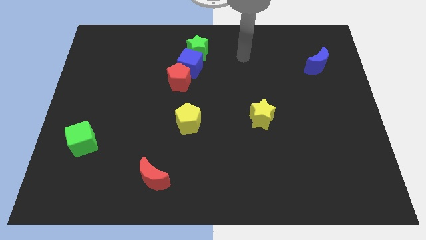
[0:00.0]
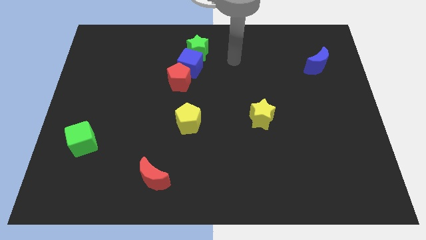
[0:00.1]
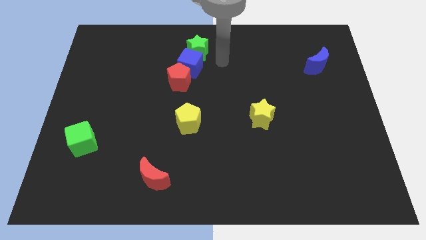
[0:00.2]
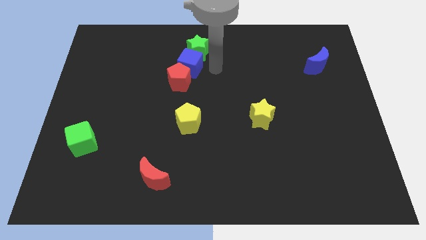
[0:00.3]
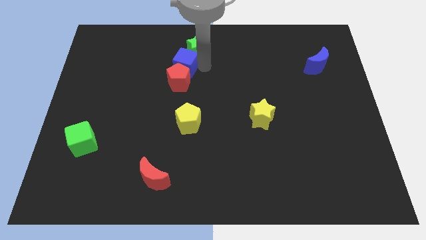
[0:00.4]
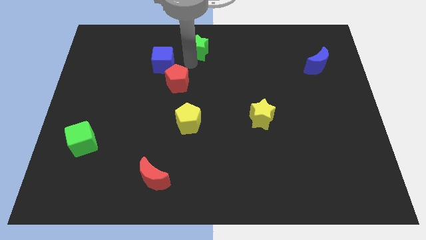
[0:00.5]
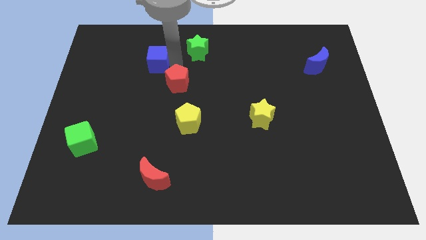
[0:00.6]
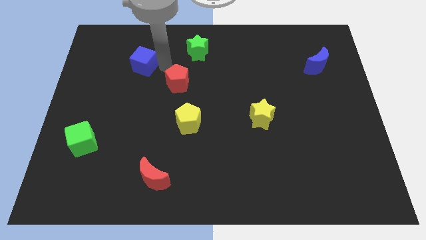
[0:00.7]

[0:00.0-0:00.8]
move the red pentagon away from the blue cube

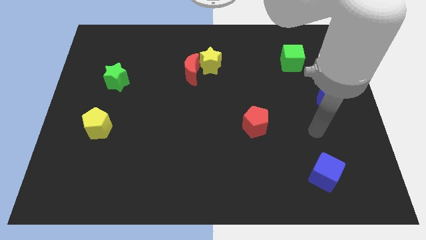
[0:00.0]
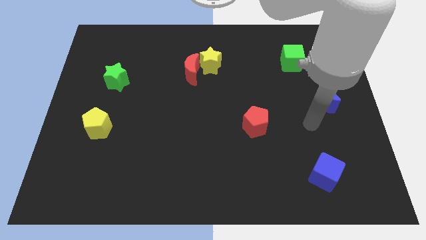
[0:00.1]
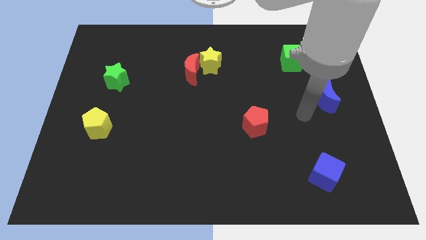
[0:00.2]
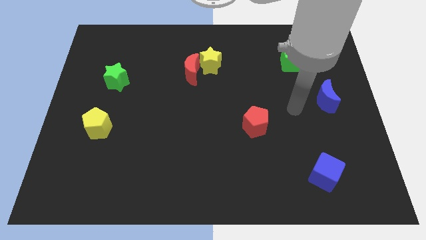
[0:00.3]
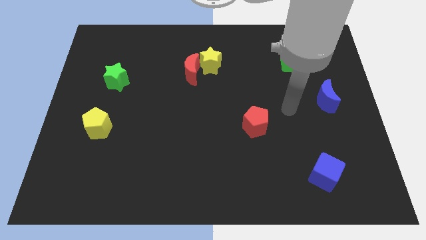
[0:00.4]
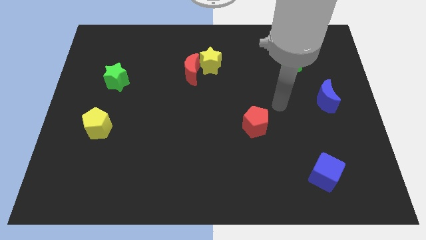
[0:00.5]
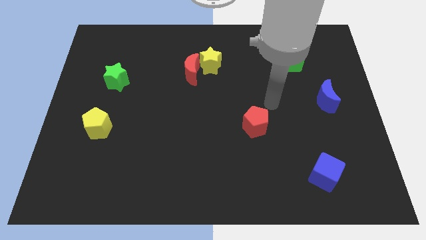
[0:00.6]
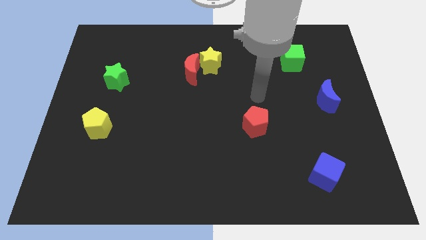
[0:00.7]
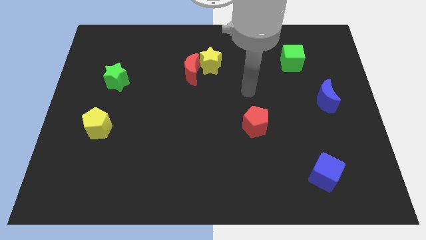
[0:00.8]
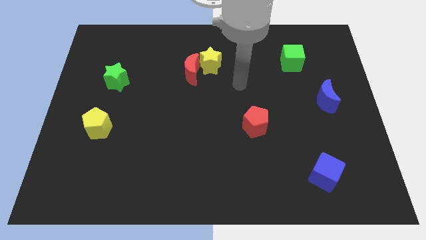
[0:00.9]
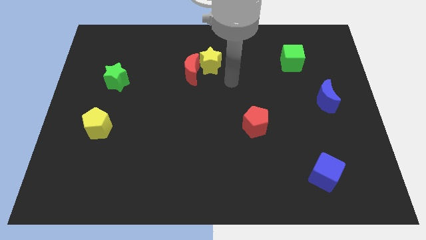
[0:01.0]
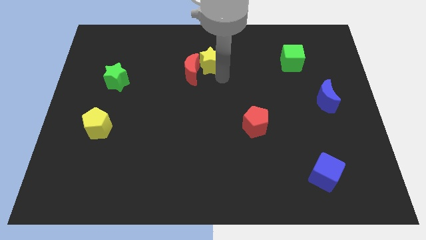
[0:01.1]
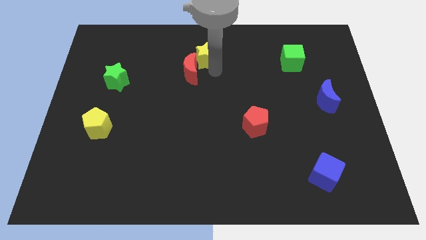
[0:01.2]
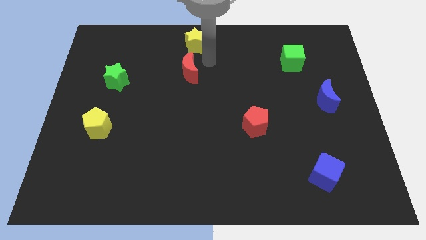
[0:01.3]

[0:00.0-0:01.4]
separate the red moon from the yellow star

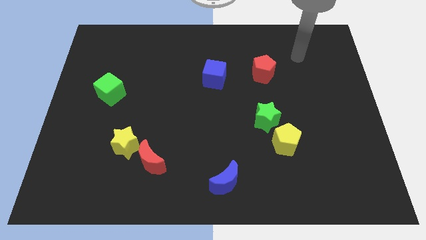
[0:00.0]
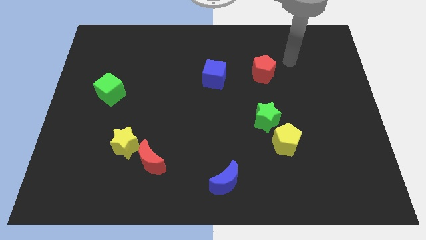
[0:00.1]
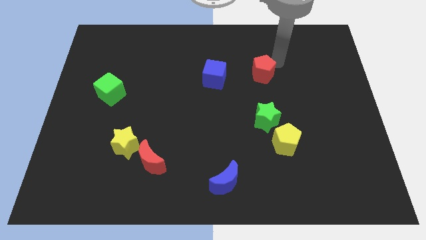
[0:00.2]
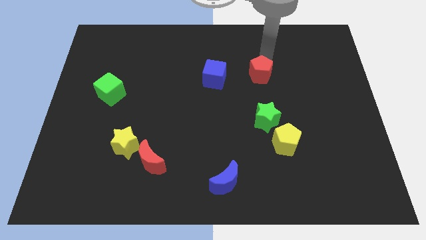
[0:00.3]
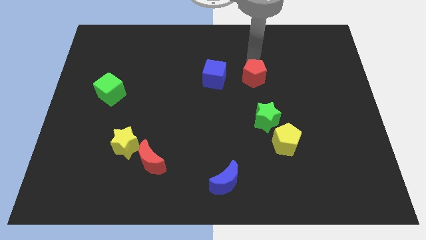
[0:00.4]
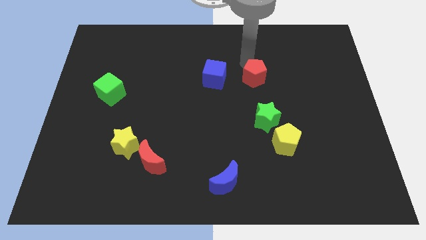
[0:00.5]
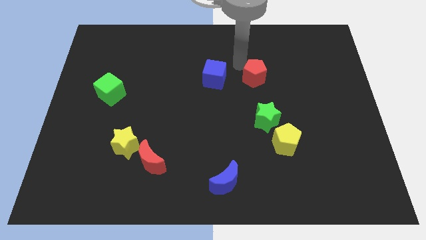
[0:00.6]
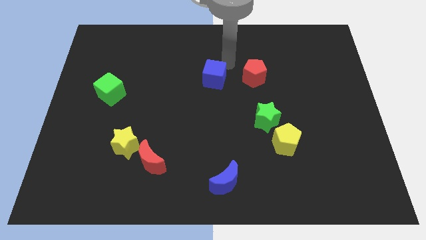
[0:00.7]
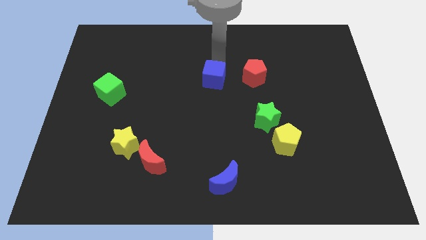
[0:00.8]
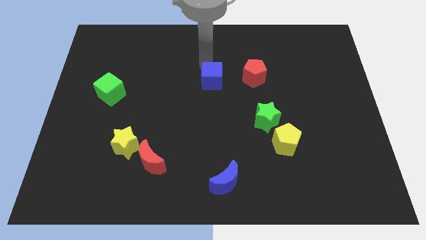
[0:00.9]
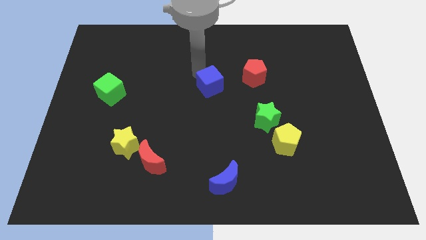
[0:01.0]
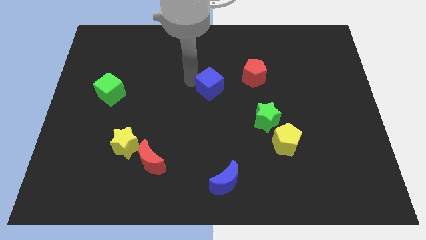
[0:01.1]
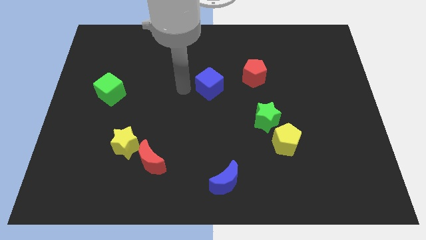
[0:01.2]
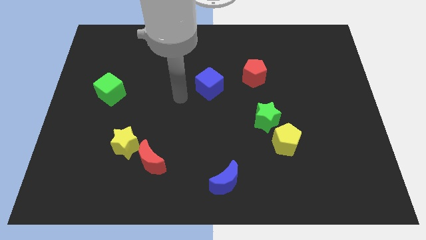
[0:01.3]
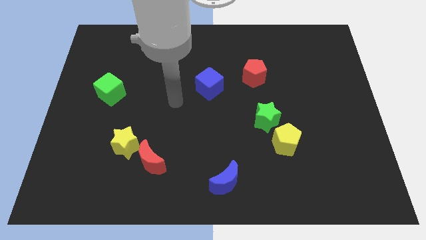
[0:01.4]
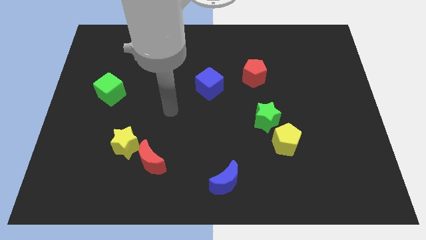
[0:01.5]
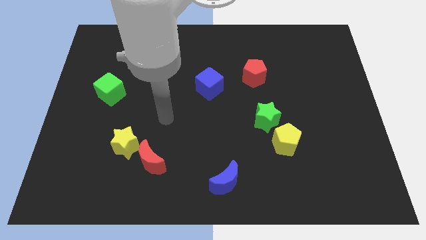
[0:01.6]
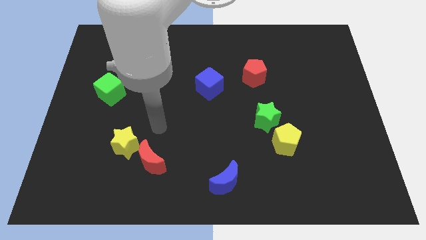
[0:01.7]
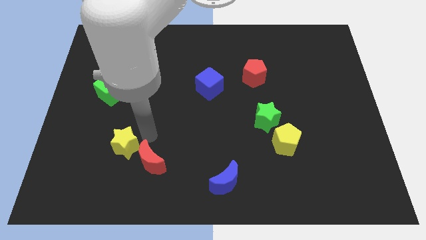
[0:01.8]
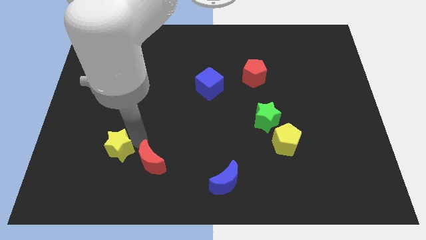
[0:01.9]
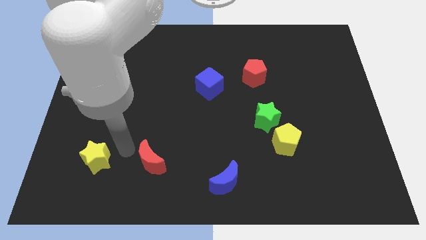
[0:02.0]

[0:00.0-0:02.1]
pull the red moon apart from the yellow star

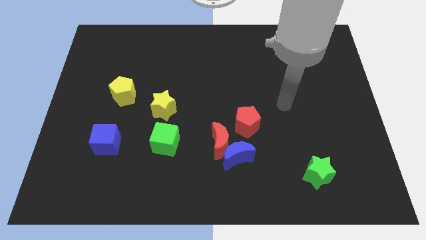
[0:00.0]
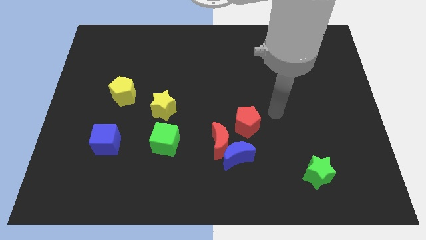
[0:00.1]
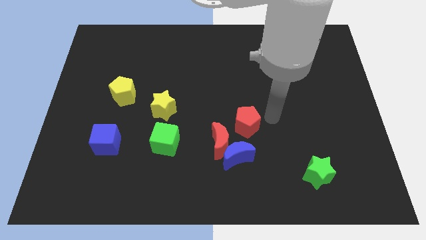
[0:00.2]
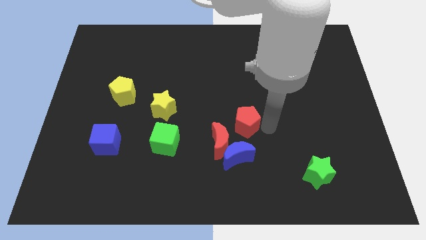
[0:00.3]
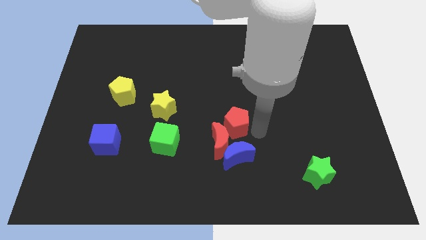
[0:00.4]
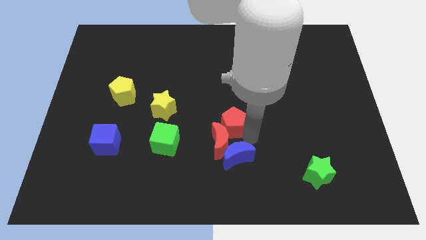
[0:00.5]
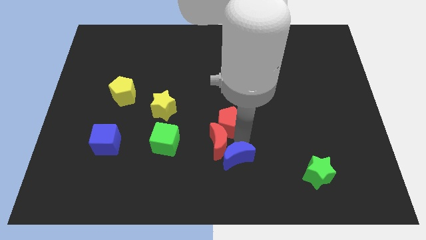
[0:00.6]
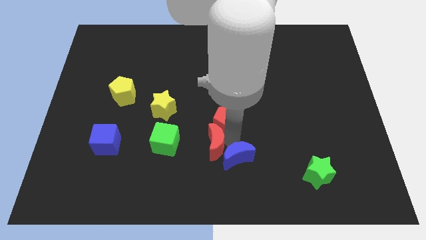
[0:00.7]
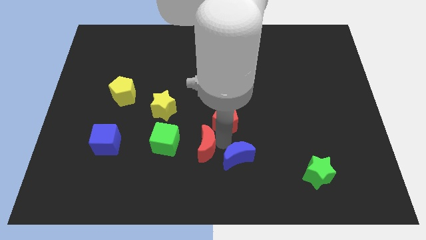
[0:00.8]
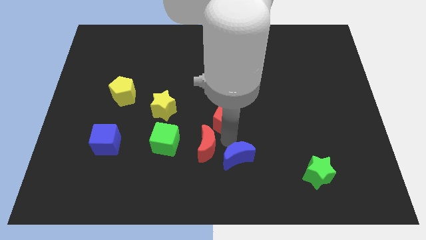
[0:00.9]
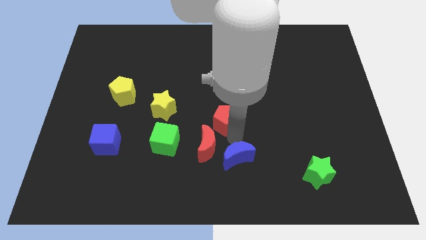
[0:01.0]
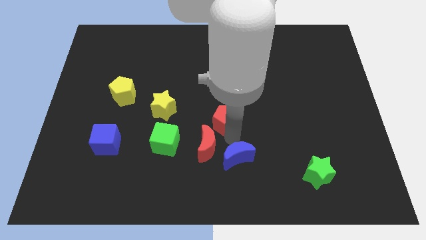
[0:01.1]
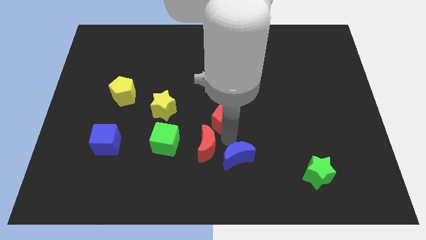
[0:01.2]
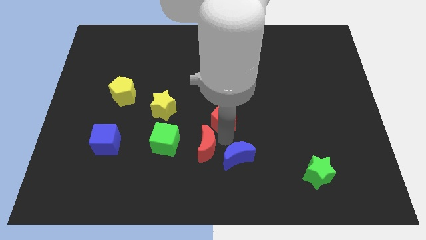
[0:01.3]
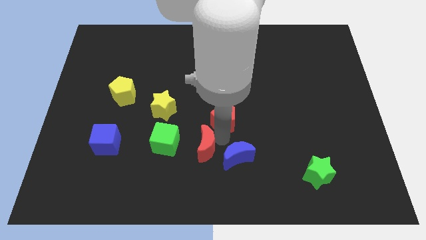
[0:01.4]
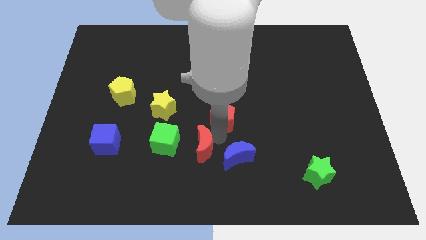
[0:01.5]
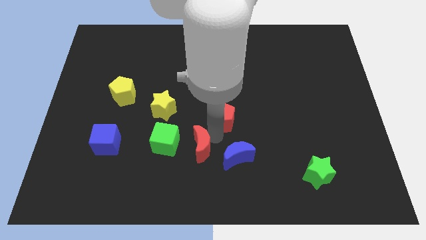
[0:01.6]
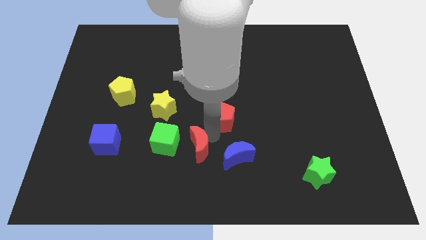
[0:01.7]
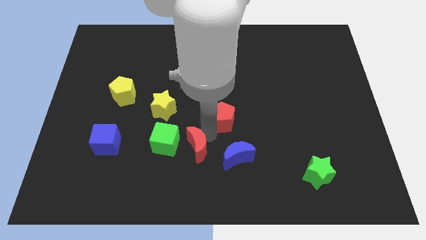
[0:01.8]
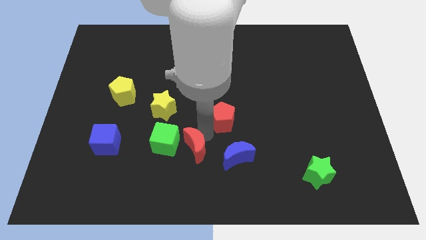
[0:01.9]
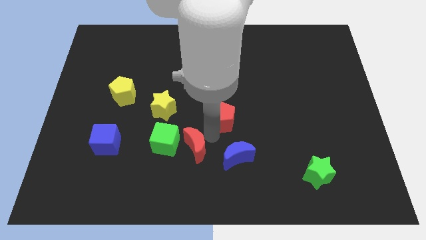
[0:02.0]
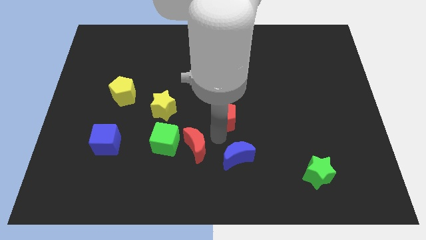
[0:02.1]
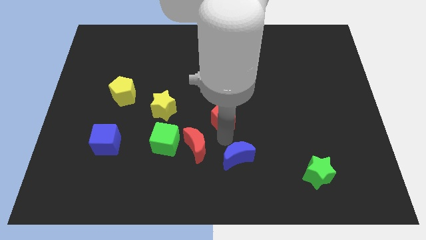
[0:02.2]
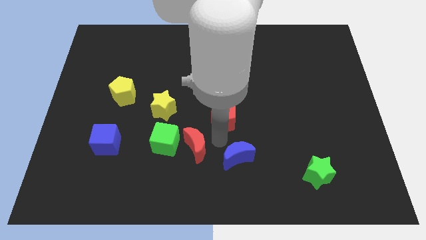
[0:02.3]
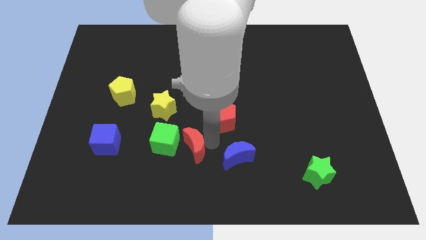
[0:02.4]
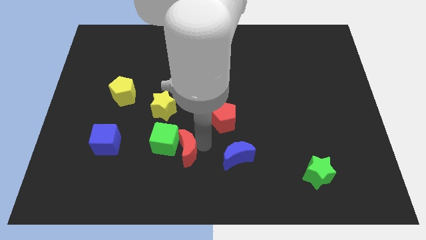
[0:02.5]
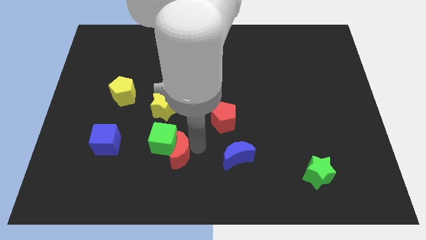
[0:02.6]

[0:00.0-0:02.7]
move the red moon away from the blue moon and red pentagon

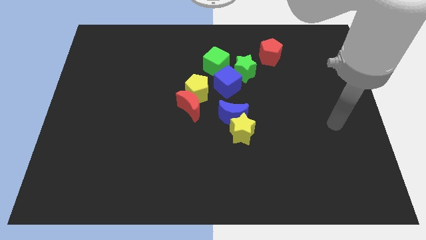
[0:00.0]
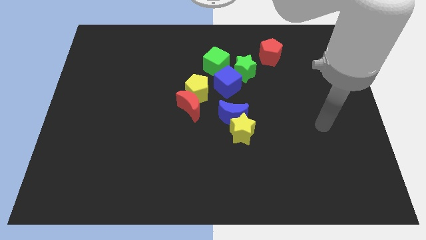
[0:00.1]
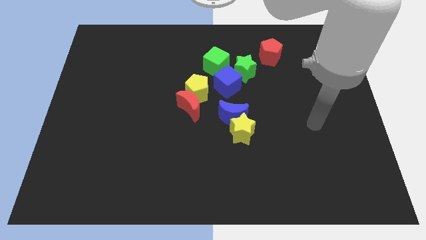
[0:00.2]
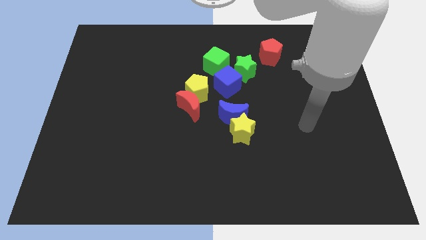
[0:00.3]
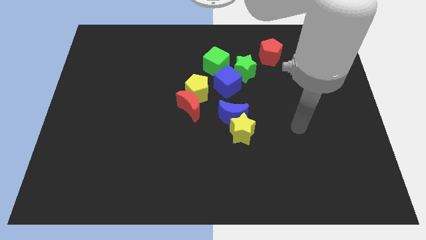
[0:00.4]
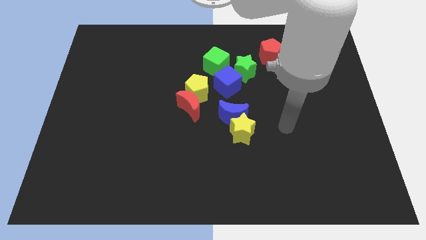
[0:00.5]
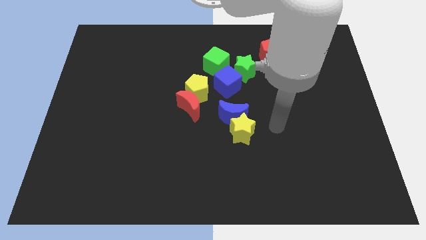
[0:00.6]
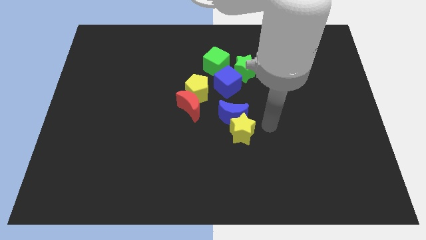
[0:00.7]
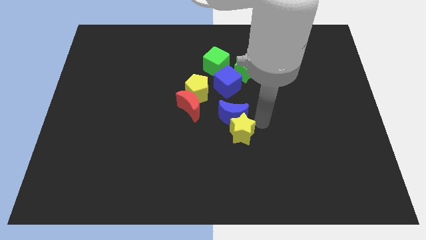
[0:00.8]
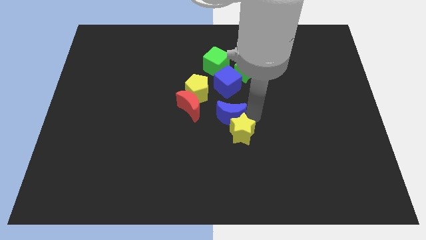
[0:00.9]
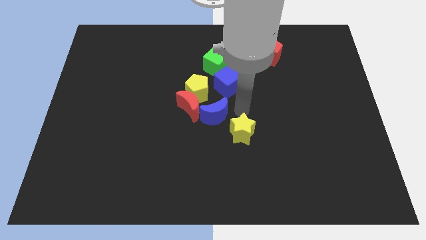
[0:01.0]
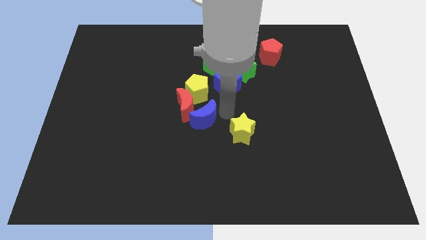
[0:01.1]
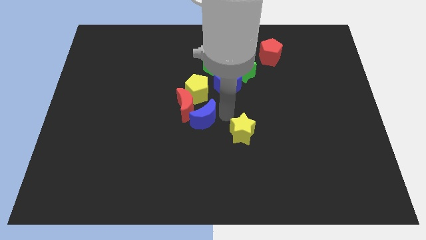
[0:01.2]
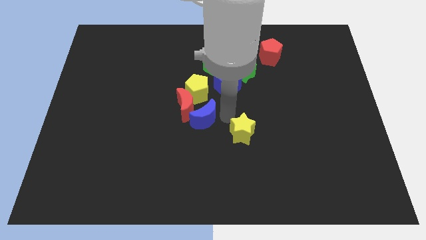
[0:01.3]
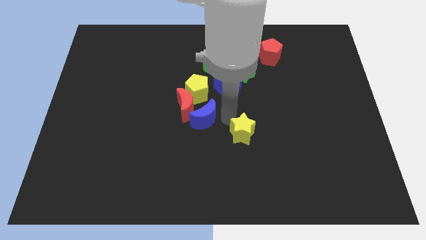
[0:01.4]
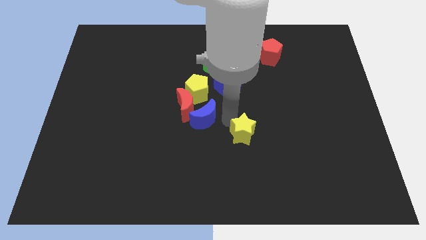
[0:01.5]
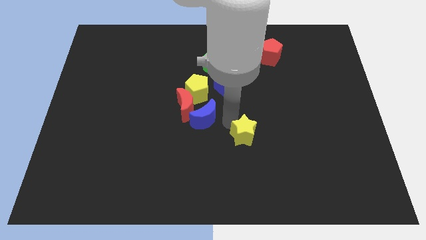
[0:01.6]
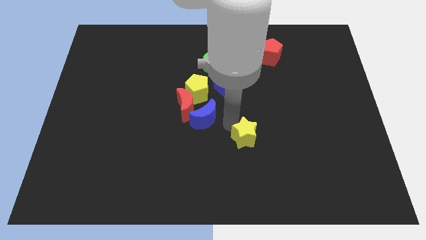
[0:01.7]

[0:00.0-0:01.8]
separate the yellow star from the blue moon

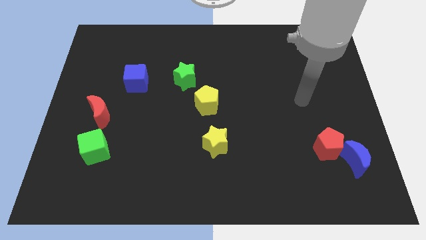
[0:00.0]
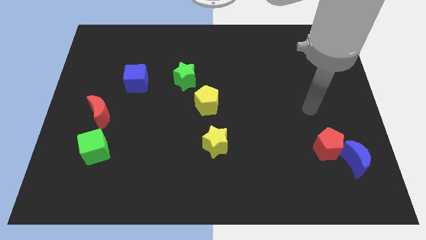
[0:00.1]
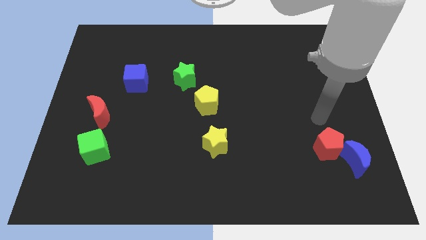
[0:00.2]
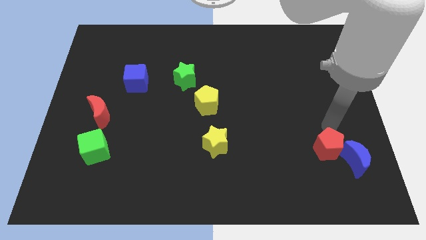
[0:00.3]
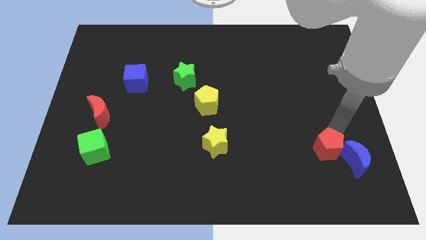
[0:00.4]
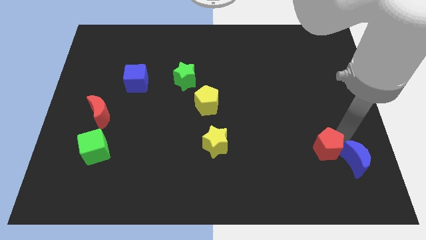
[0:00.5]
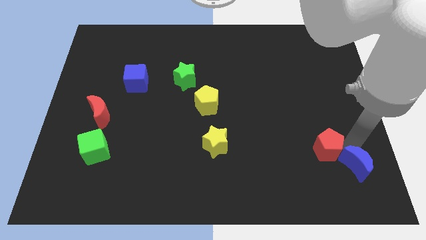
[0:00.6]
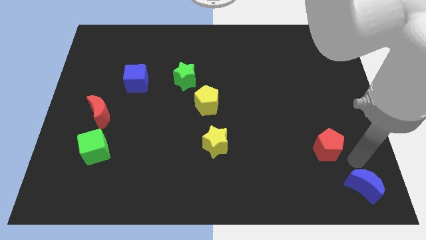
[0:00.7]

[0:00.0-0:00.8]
move the red pentagon away from the blue moon
